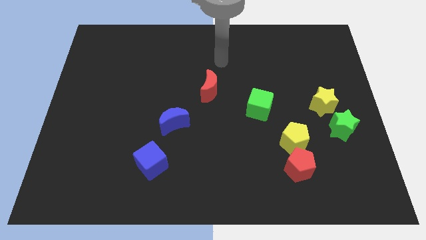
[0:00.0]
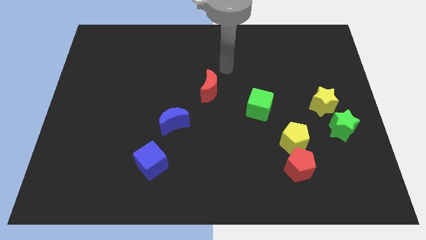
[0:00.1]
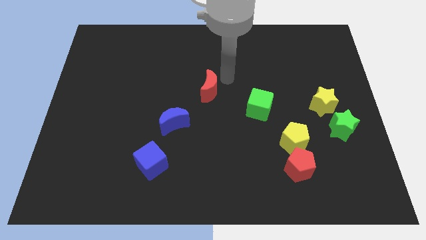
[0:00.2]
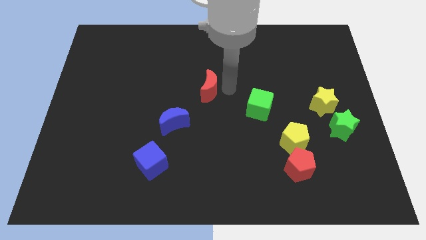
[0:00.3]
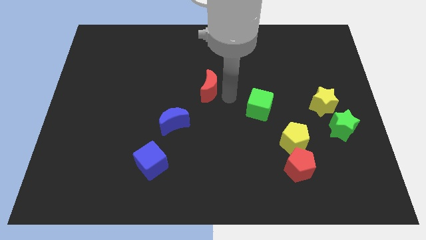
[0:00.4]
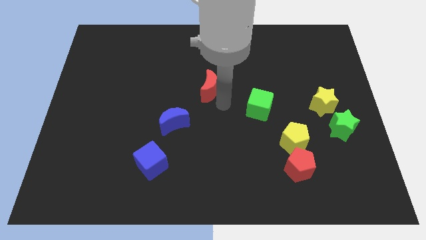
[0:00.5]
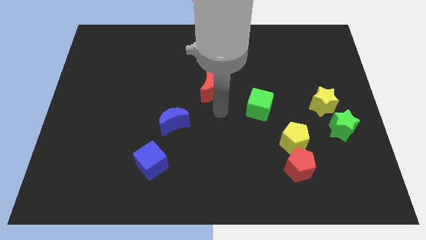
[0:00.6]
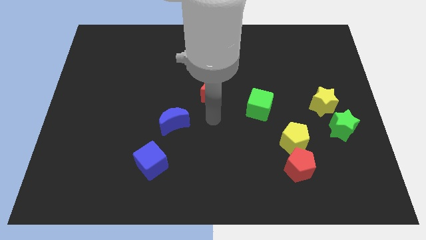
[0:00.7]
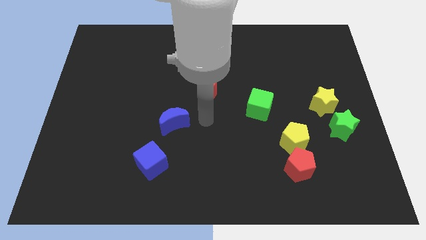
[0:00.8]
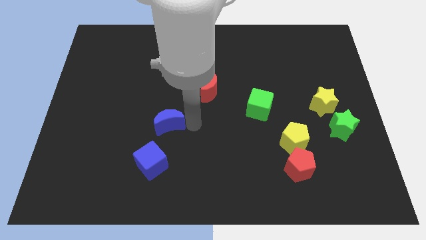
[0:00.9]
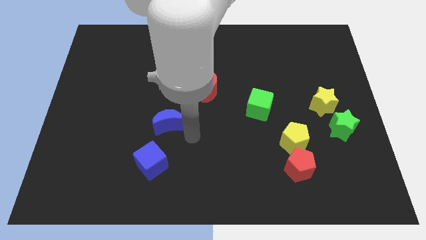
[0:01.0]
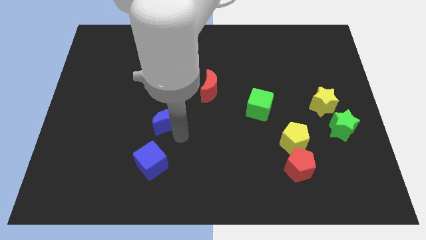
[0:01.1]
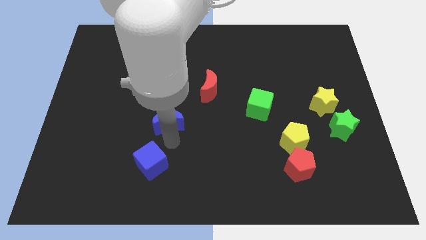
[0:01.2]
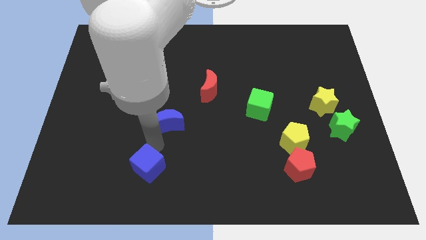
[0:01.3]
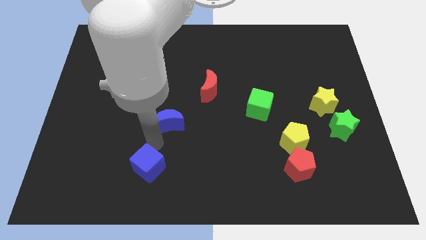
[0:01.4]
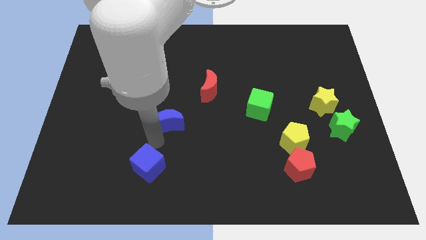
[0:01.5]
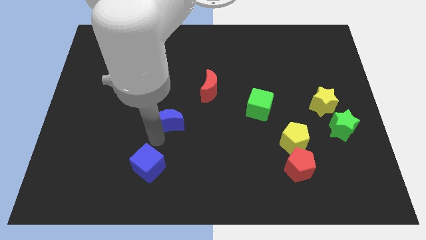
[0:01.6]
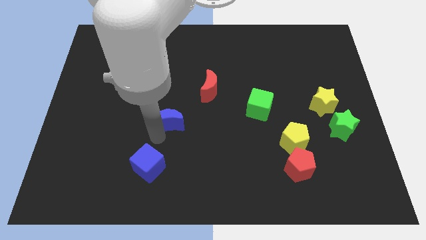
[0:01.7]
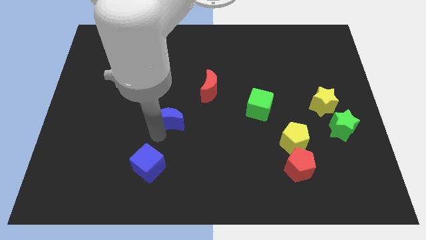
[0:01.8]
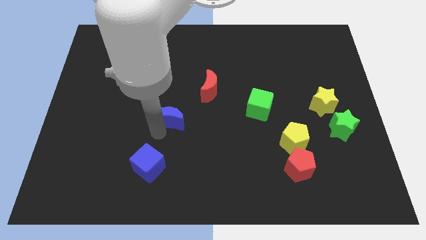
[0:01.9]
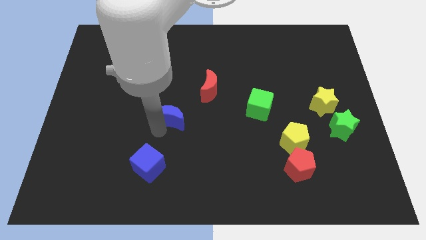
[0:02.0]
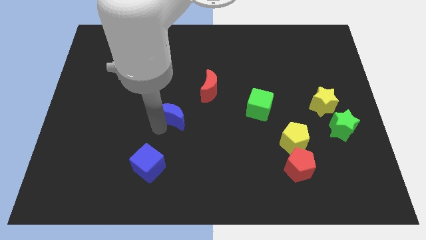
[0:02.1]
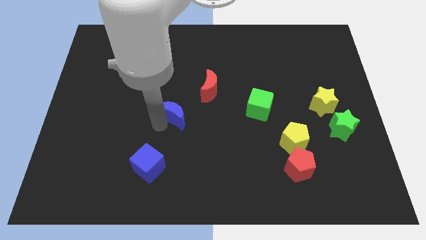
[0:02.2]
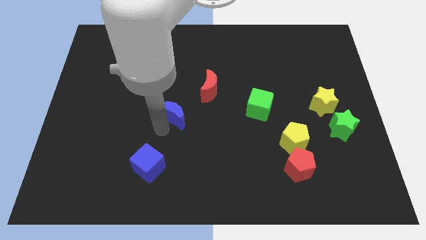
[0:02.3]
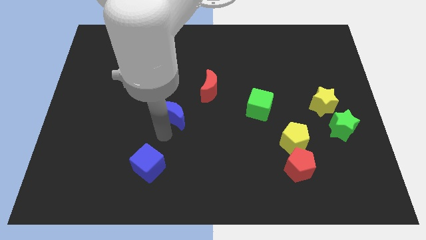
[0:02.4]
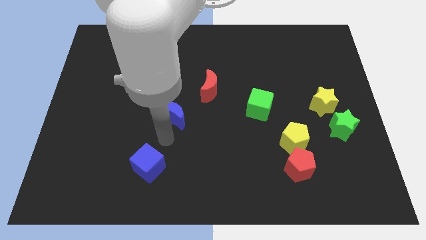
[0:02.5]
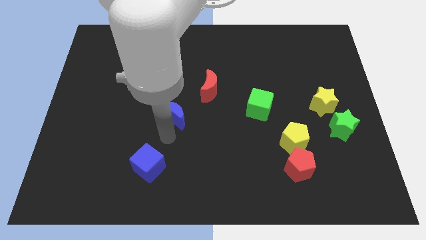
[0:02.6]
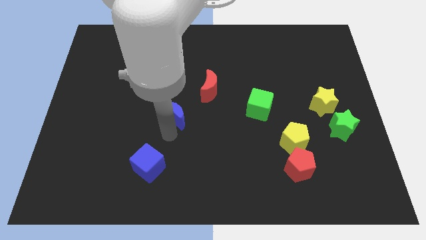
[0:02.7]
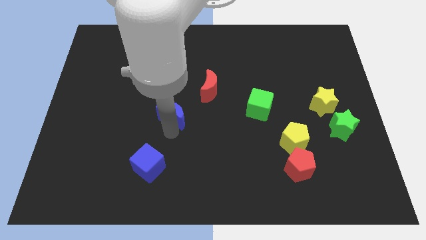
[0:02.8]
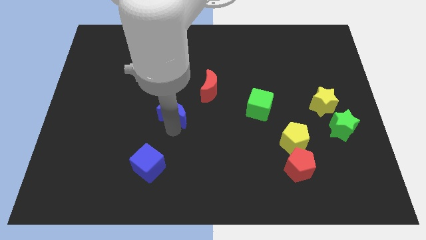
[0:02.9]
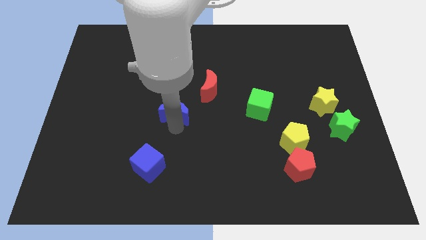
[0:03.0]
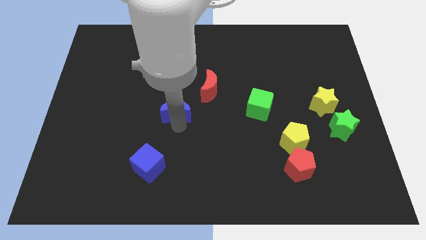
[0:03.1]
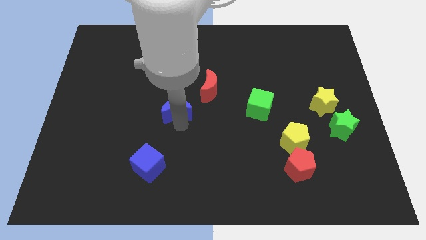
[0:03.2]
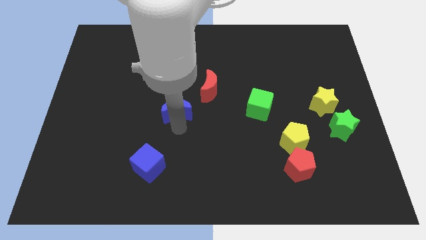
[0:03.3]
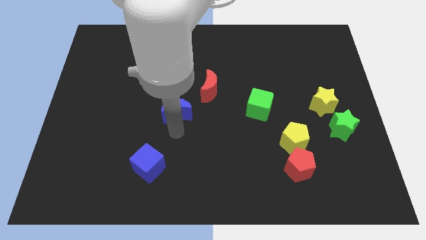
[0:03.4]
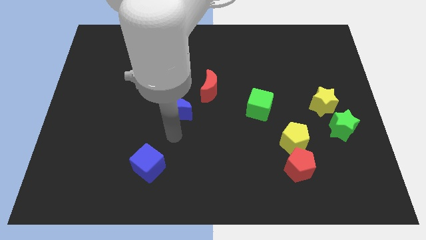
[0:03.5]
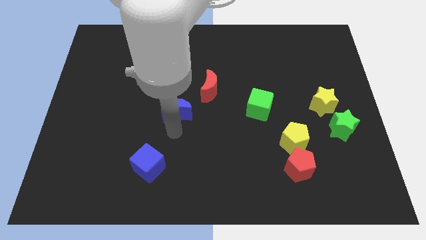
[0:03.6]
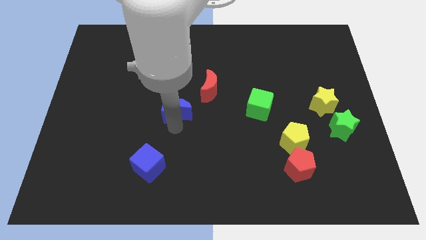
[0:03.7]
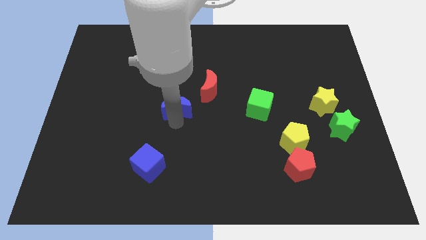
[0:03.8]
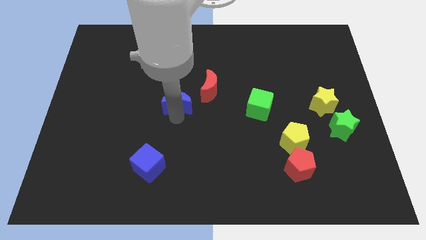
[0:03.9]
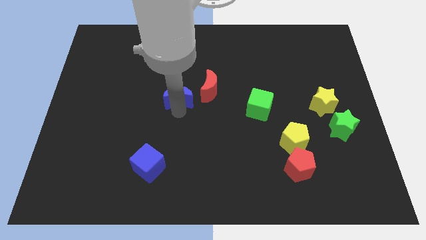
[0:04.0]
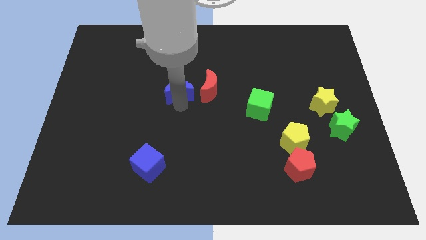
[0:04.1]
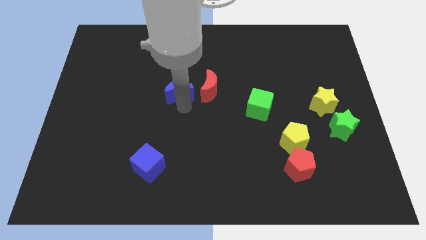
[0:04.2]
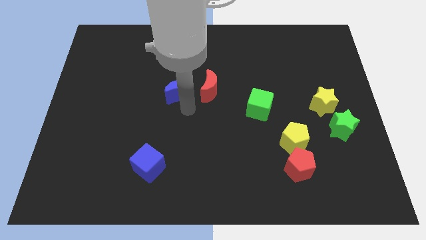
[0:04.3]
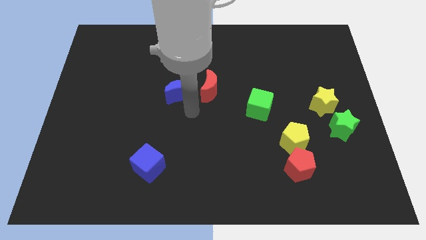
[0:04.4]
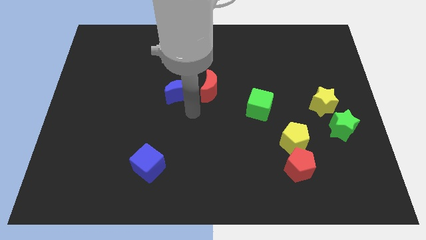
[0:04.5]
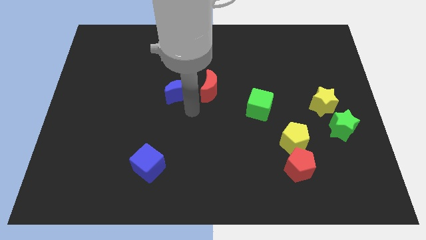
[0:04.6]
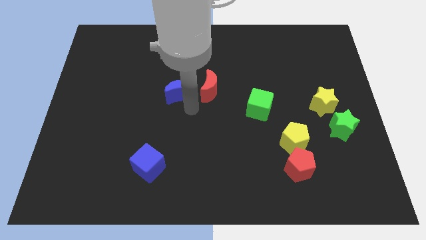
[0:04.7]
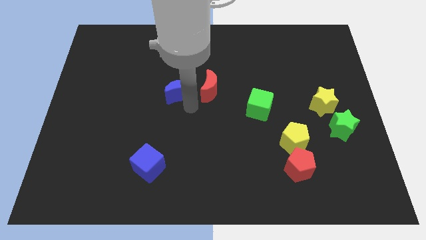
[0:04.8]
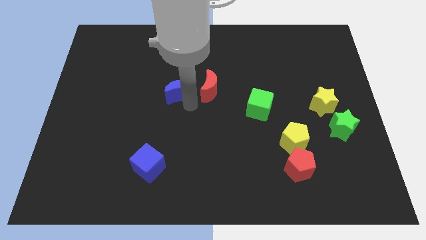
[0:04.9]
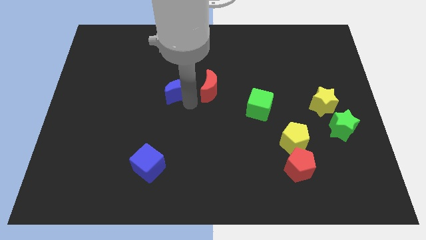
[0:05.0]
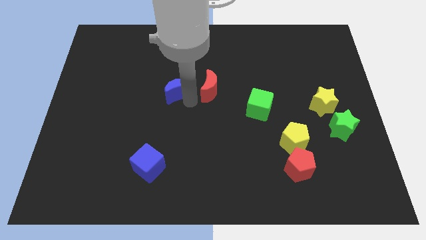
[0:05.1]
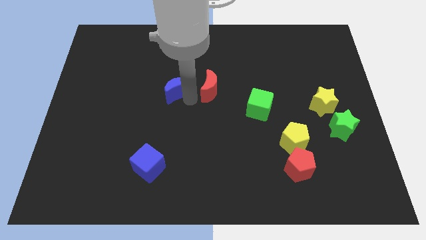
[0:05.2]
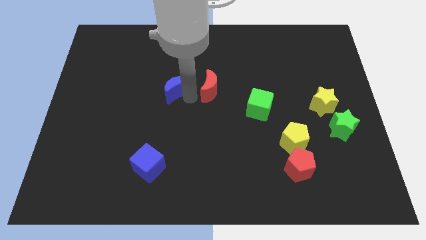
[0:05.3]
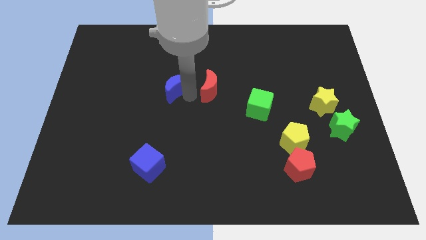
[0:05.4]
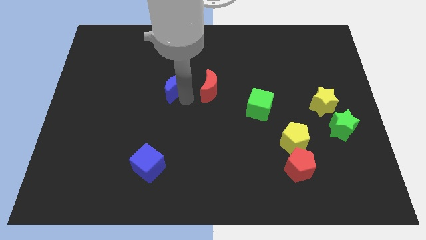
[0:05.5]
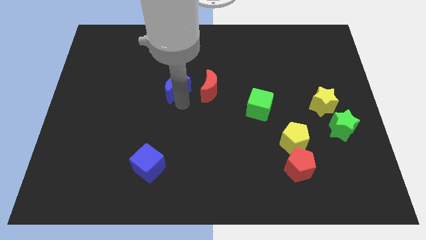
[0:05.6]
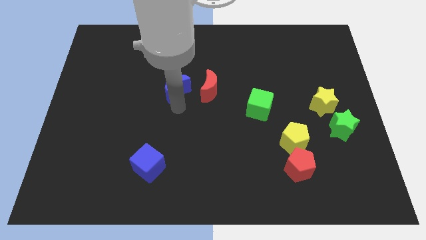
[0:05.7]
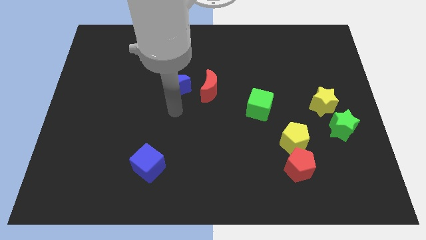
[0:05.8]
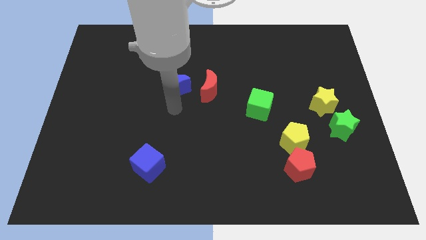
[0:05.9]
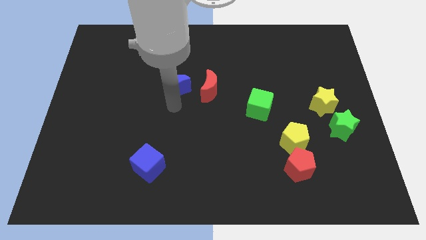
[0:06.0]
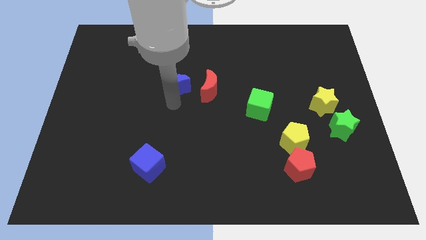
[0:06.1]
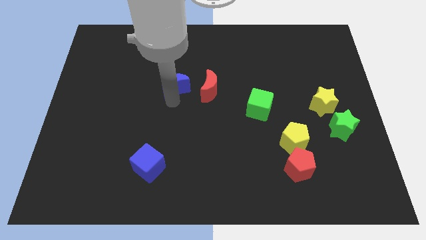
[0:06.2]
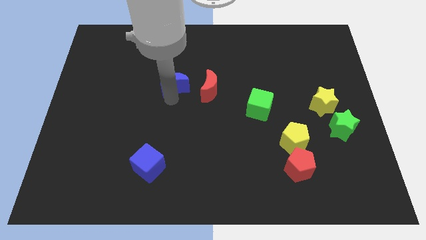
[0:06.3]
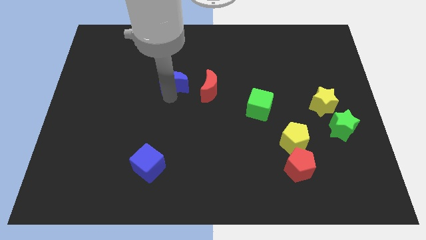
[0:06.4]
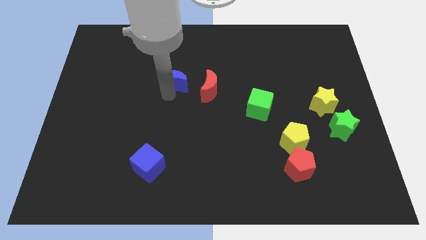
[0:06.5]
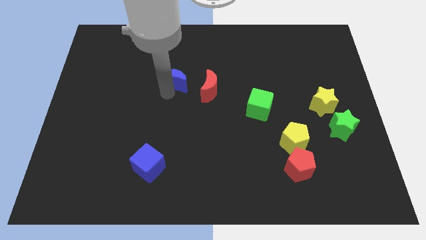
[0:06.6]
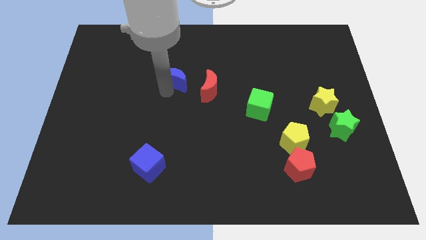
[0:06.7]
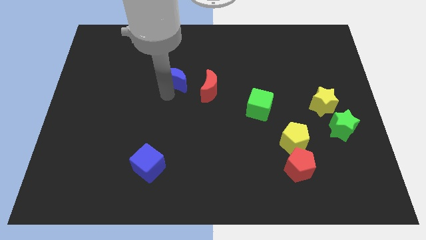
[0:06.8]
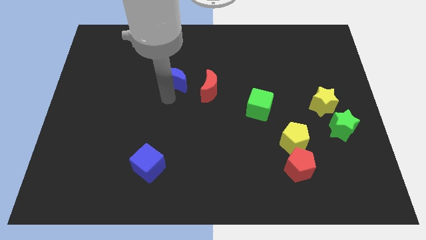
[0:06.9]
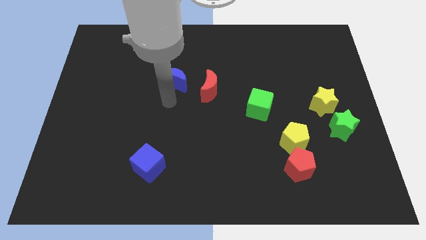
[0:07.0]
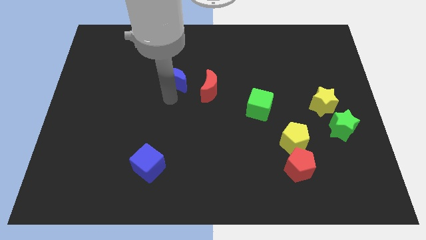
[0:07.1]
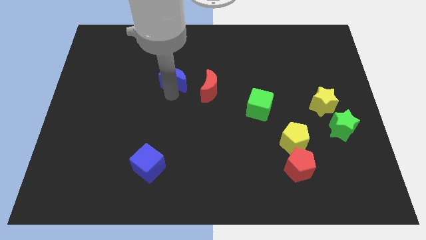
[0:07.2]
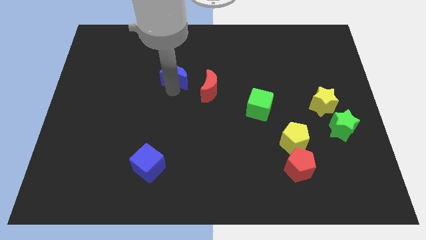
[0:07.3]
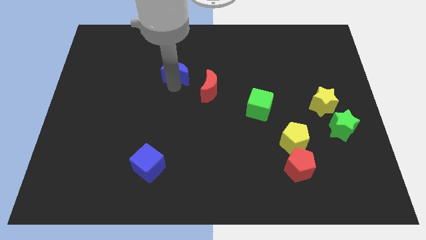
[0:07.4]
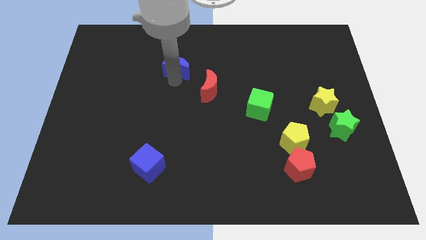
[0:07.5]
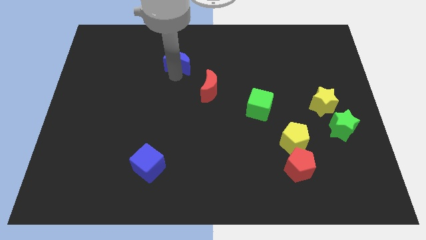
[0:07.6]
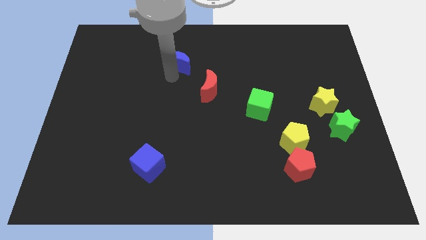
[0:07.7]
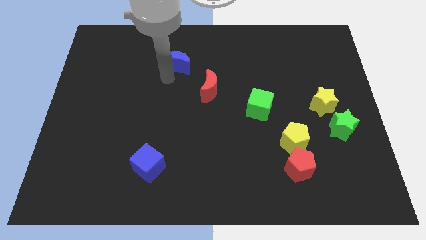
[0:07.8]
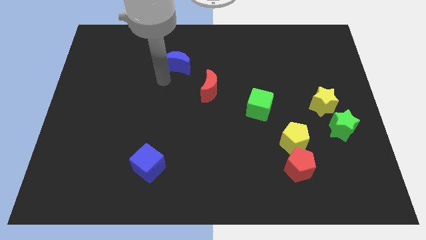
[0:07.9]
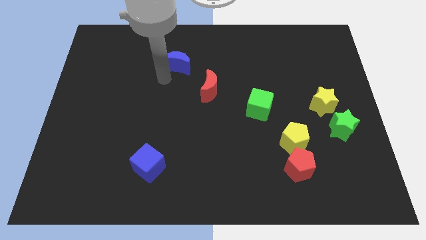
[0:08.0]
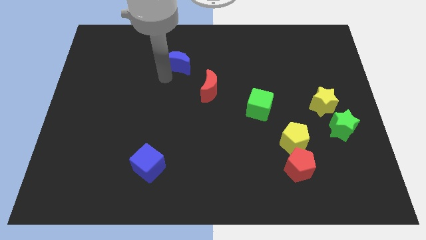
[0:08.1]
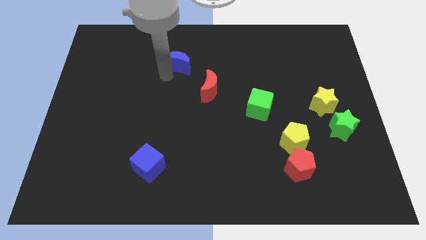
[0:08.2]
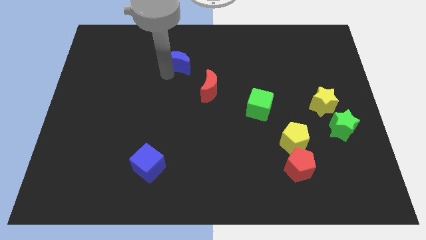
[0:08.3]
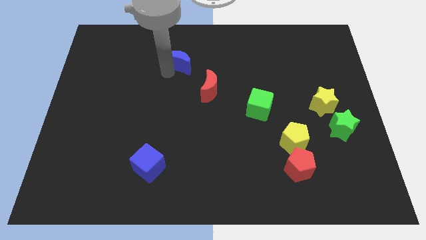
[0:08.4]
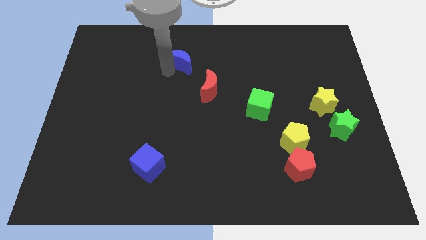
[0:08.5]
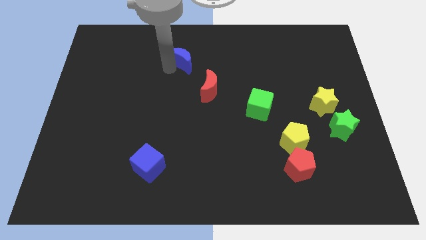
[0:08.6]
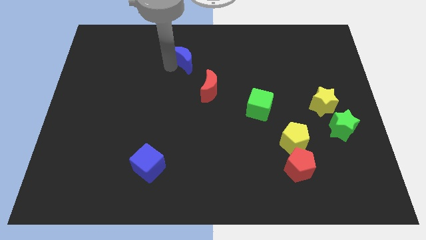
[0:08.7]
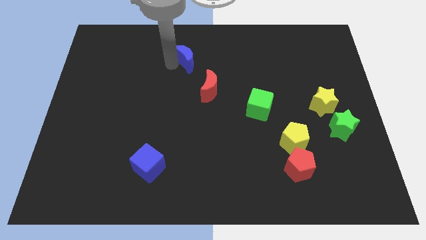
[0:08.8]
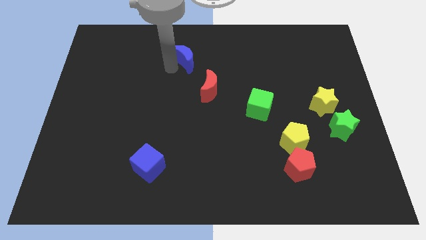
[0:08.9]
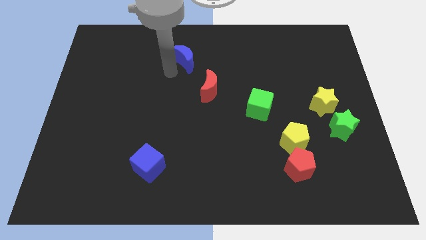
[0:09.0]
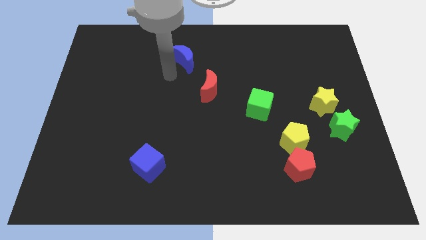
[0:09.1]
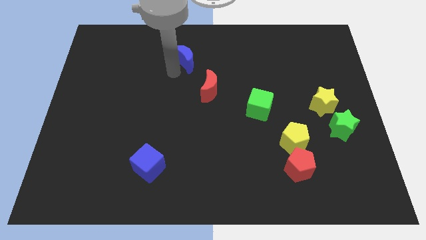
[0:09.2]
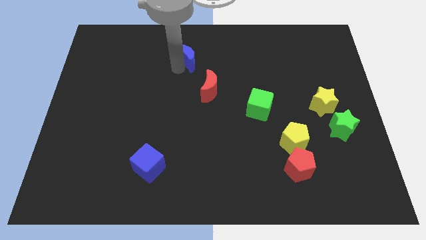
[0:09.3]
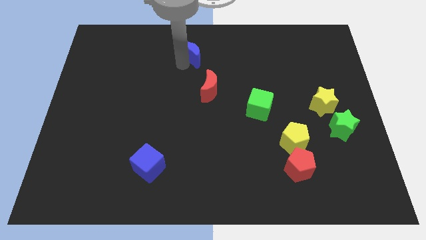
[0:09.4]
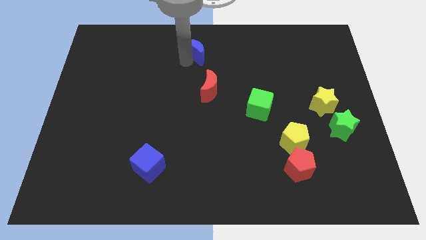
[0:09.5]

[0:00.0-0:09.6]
push the blue moon to the top side
